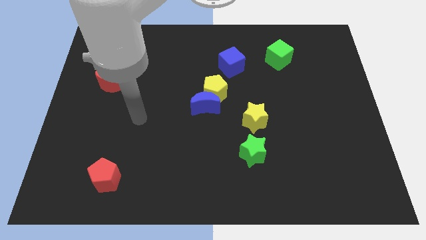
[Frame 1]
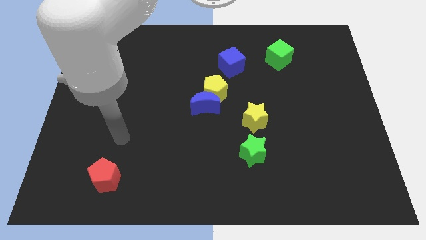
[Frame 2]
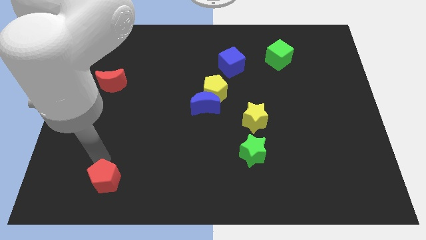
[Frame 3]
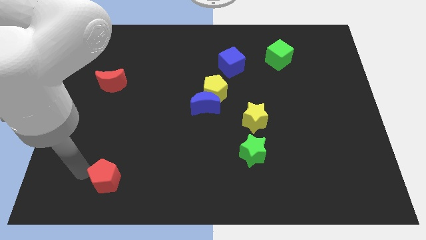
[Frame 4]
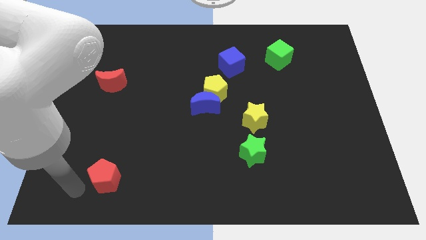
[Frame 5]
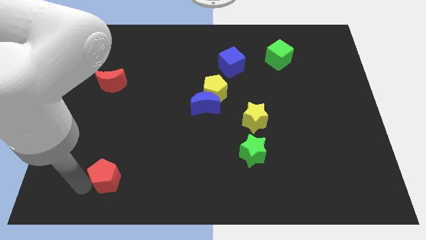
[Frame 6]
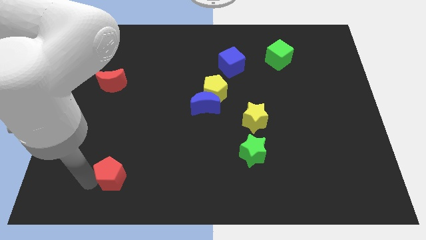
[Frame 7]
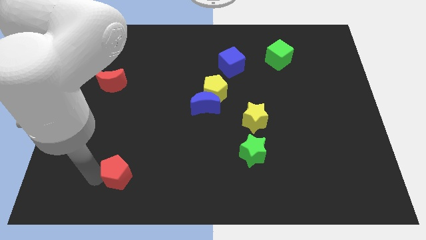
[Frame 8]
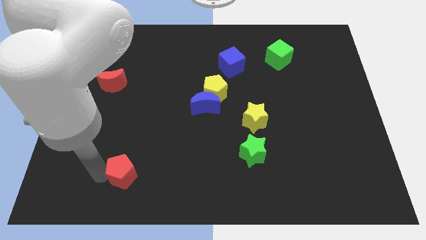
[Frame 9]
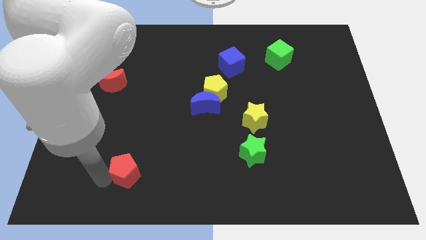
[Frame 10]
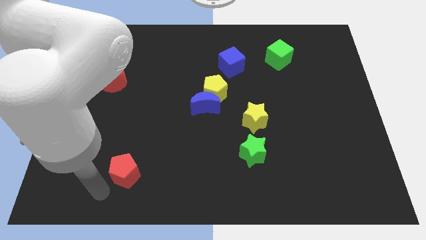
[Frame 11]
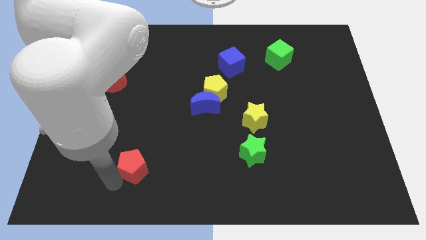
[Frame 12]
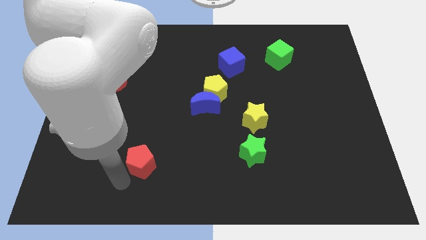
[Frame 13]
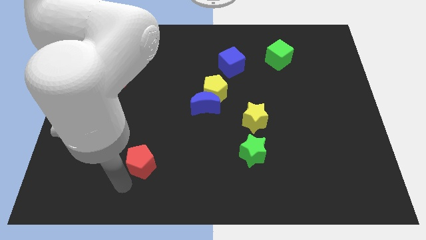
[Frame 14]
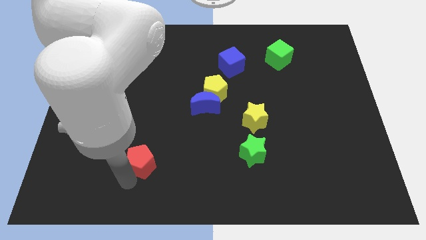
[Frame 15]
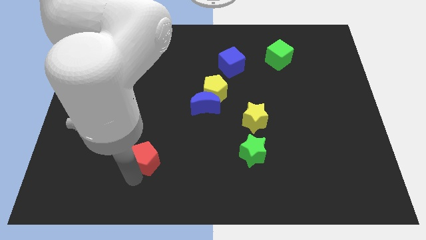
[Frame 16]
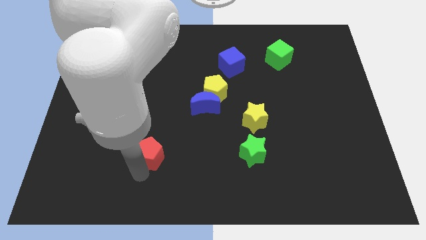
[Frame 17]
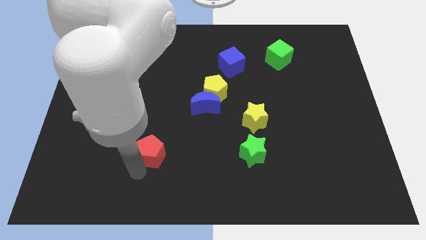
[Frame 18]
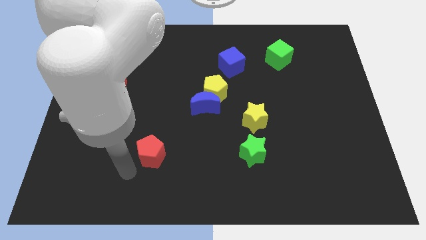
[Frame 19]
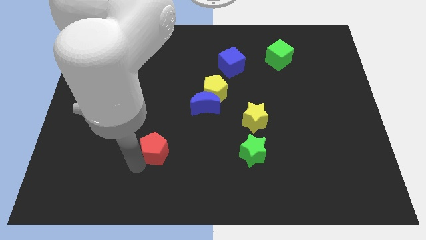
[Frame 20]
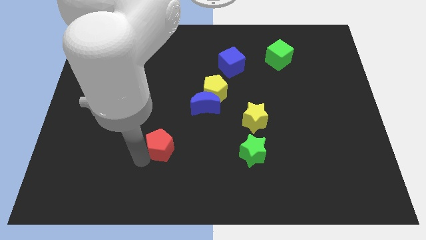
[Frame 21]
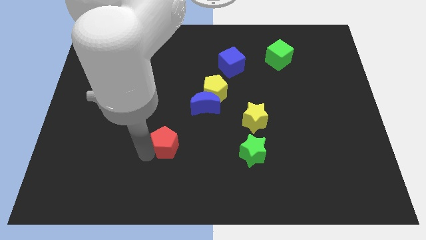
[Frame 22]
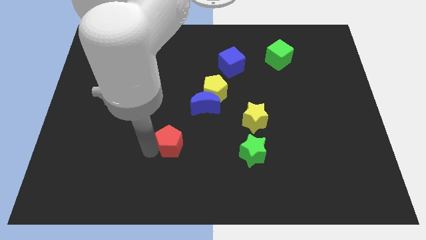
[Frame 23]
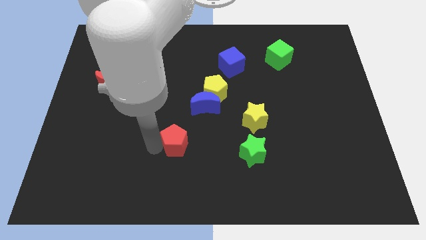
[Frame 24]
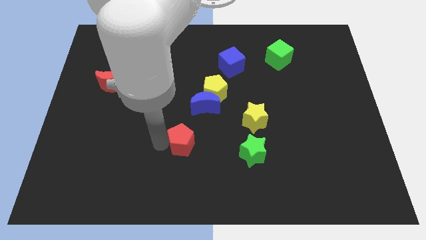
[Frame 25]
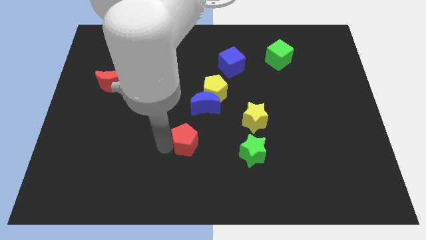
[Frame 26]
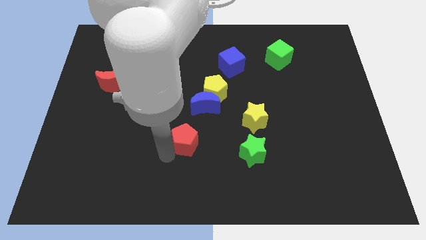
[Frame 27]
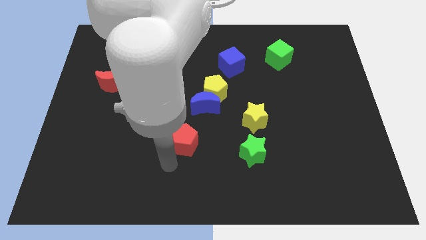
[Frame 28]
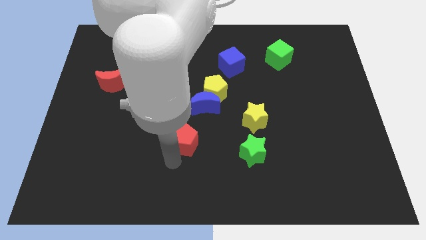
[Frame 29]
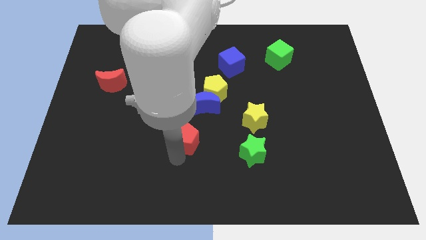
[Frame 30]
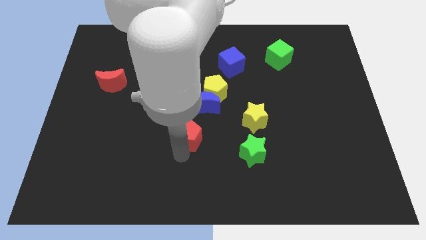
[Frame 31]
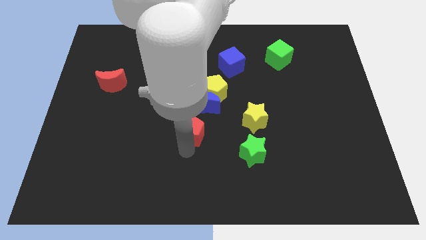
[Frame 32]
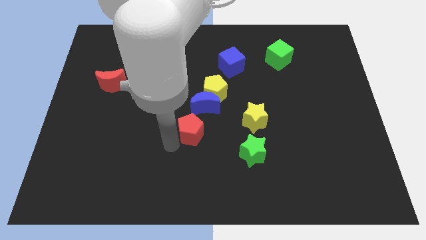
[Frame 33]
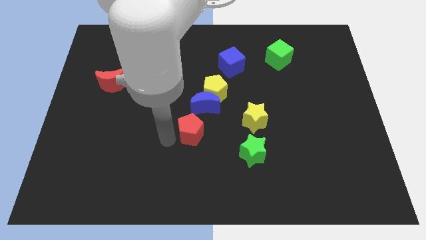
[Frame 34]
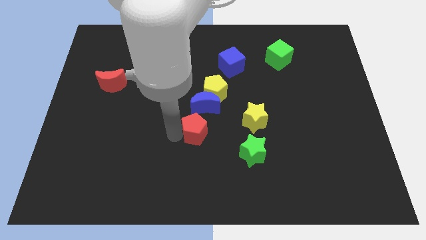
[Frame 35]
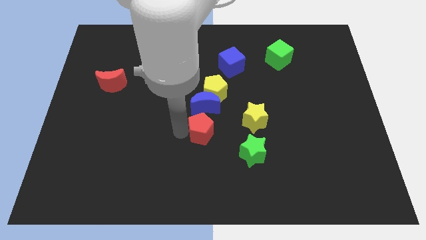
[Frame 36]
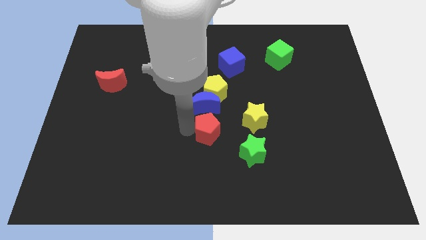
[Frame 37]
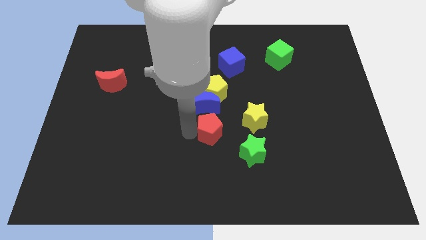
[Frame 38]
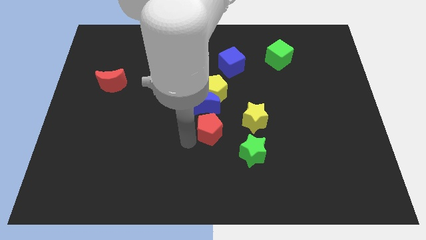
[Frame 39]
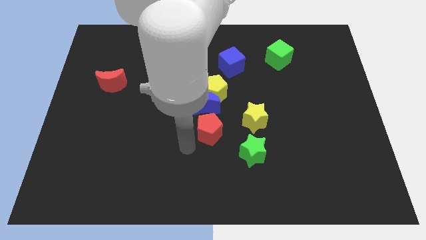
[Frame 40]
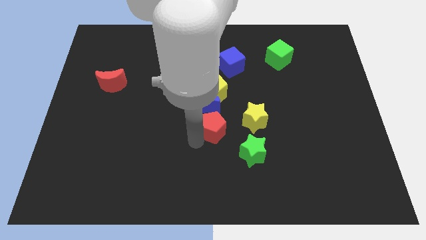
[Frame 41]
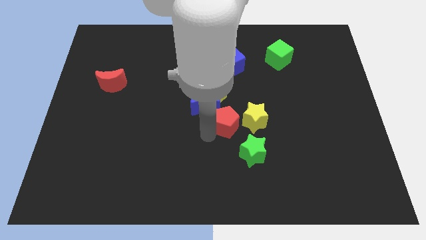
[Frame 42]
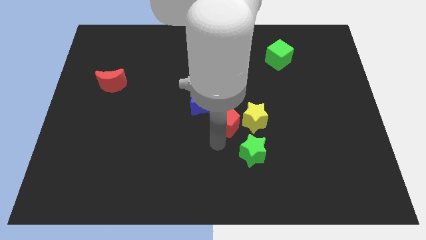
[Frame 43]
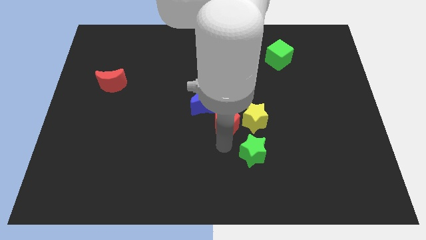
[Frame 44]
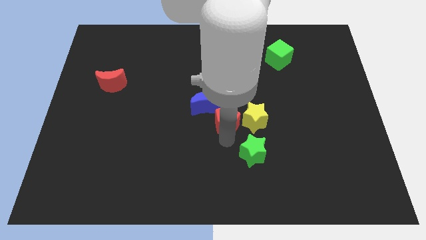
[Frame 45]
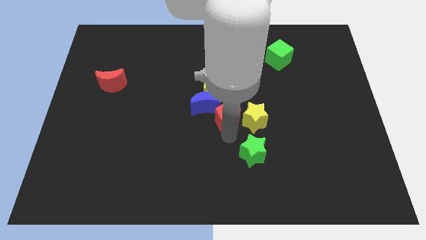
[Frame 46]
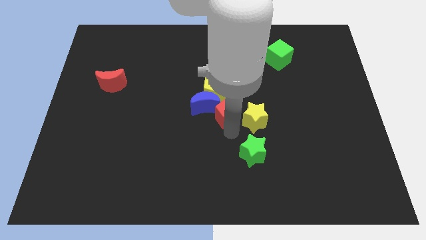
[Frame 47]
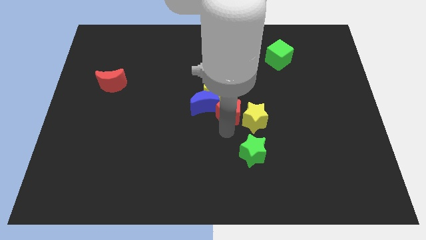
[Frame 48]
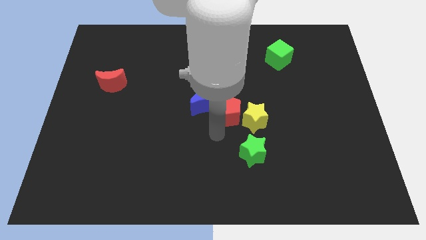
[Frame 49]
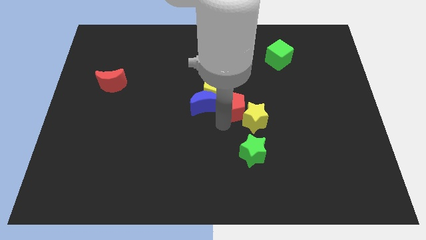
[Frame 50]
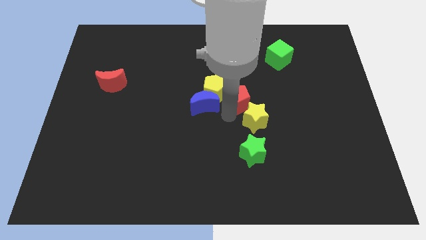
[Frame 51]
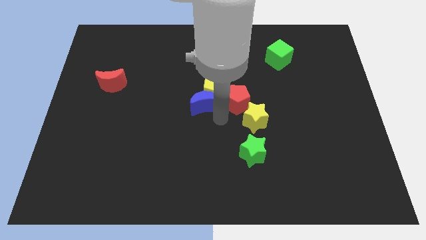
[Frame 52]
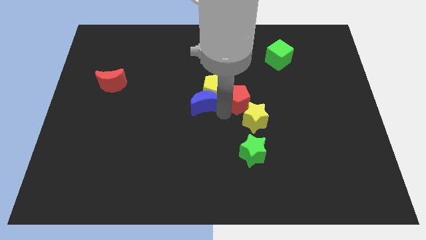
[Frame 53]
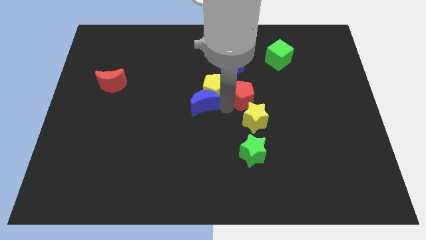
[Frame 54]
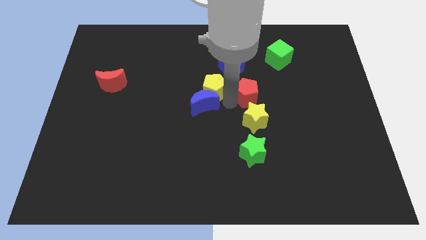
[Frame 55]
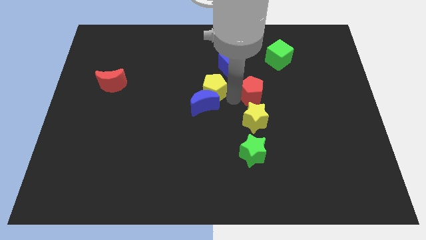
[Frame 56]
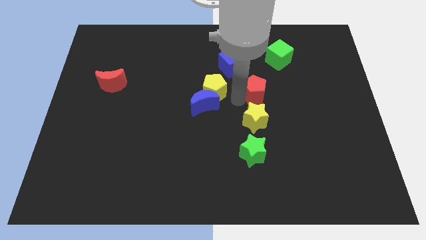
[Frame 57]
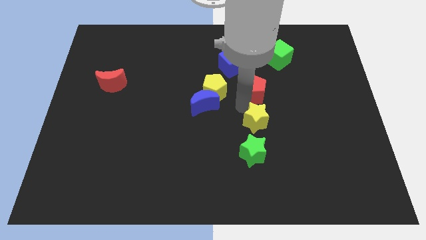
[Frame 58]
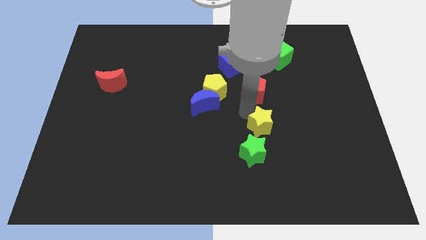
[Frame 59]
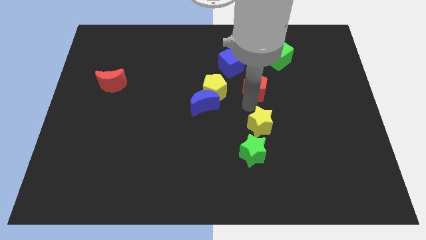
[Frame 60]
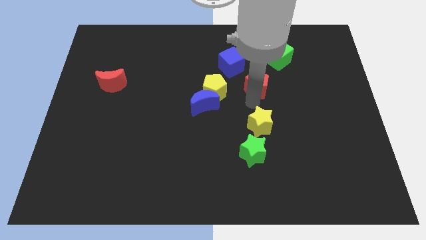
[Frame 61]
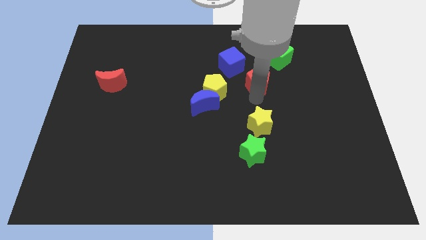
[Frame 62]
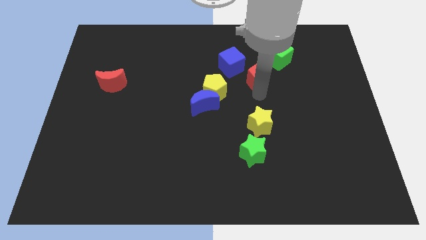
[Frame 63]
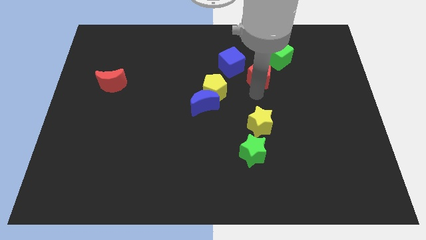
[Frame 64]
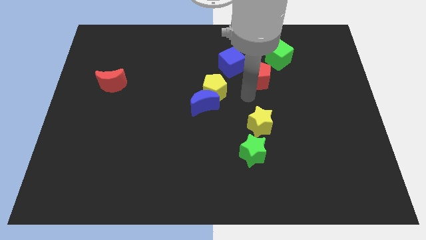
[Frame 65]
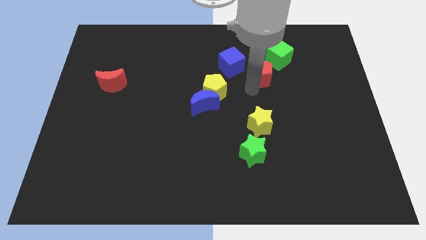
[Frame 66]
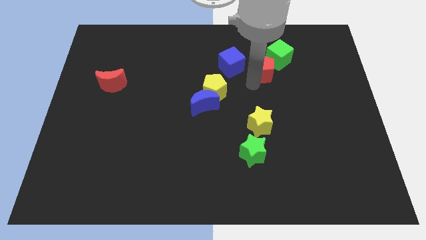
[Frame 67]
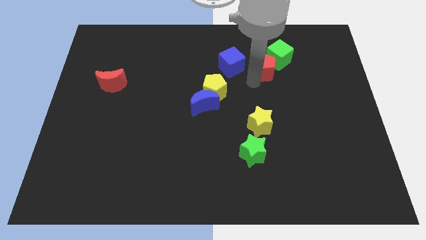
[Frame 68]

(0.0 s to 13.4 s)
move the red pentagon close to the green cube
